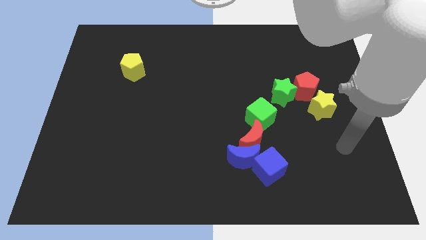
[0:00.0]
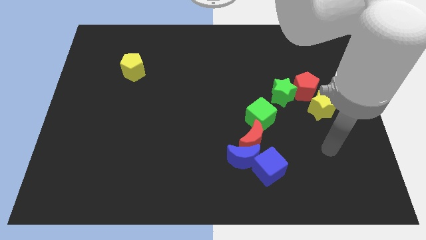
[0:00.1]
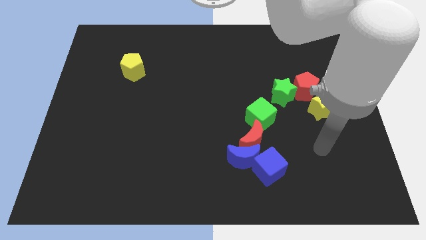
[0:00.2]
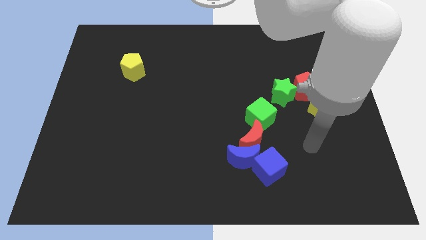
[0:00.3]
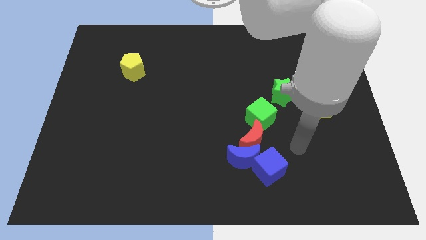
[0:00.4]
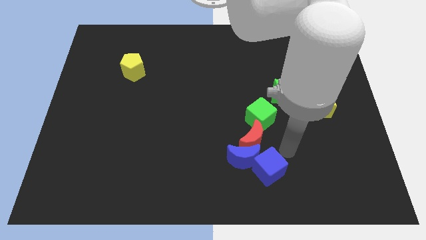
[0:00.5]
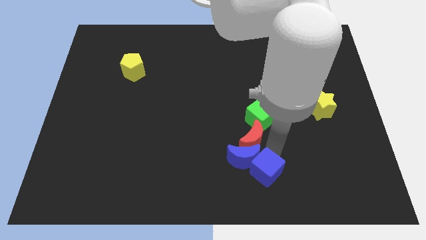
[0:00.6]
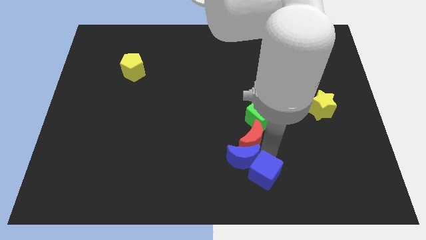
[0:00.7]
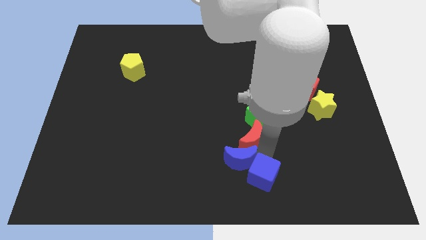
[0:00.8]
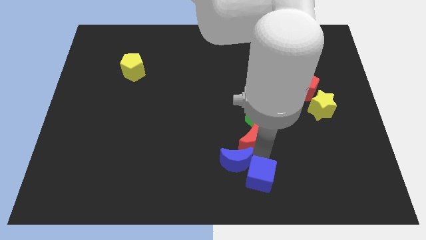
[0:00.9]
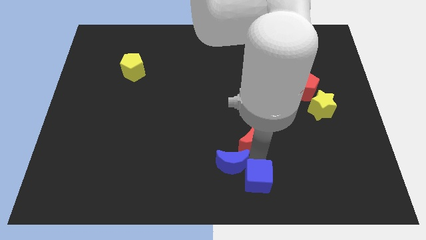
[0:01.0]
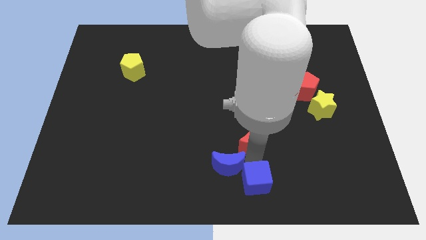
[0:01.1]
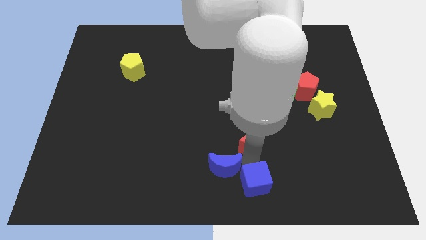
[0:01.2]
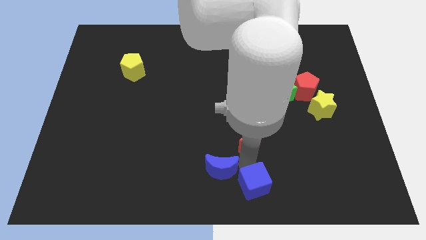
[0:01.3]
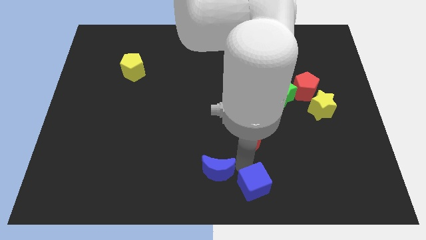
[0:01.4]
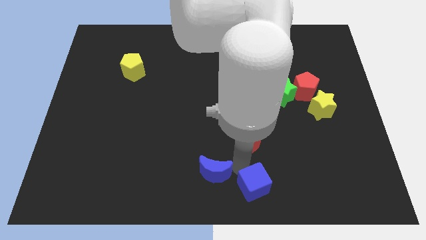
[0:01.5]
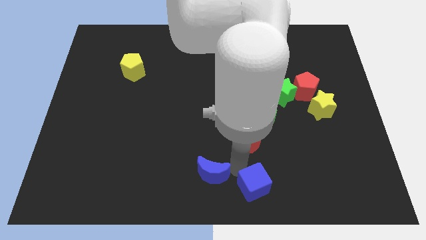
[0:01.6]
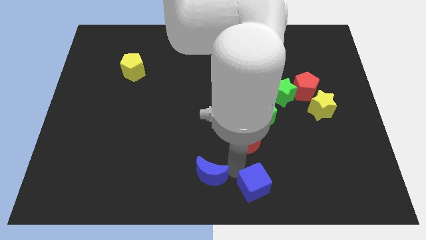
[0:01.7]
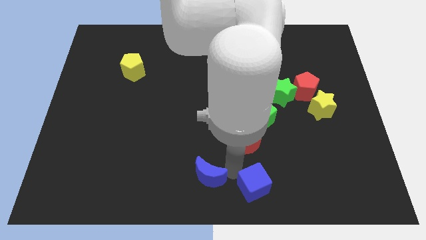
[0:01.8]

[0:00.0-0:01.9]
separate the blue moon from the red moon and blue cube

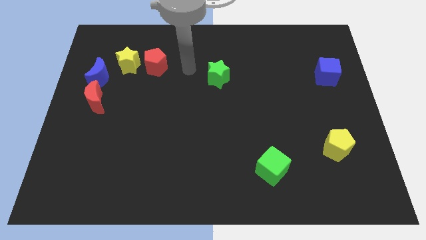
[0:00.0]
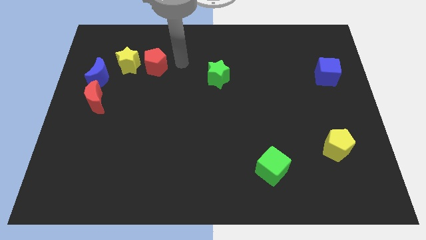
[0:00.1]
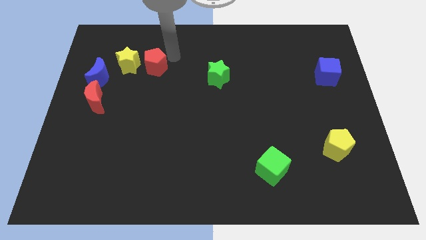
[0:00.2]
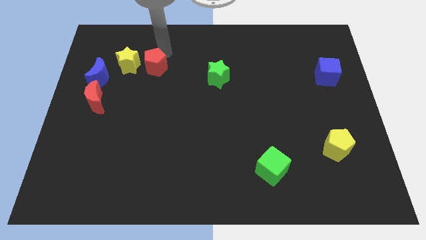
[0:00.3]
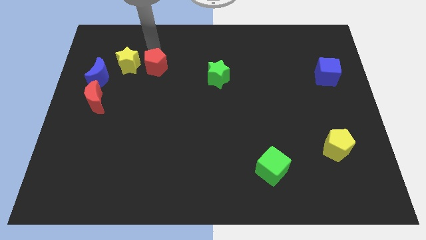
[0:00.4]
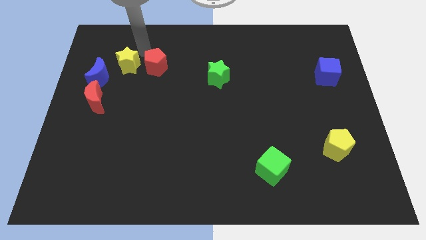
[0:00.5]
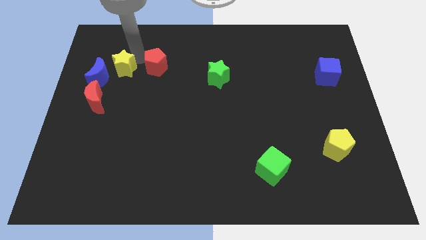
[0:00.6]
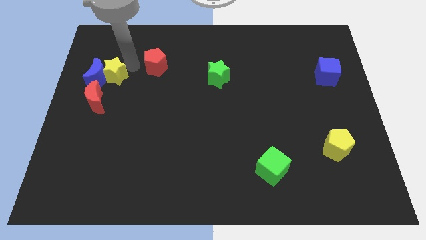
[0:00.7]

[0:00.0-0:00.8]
pull the red pentagon apart from the yellow star

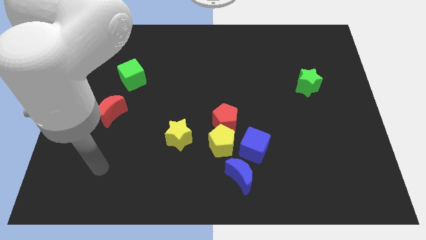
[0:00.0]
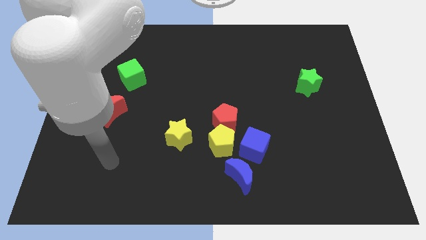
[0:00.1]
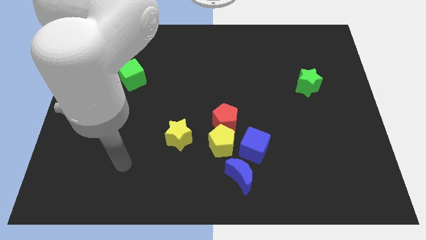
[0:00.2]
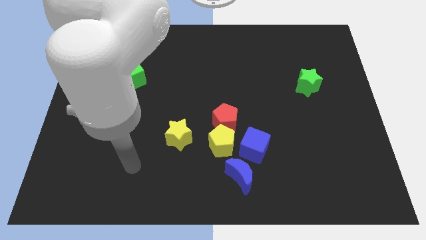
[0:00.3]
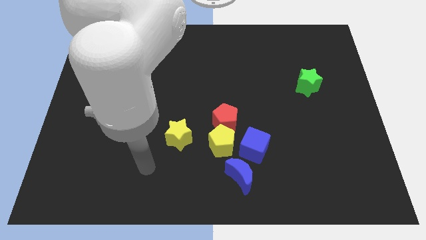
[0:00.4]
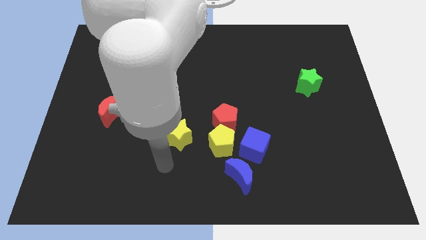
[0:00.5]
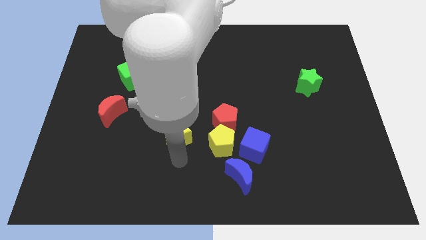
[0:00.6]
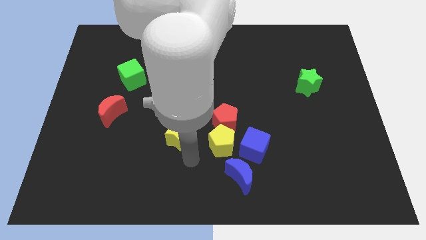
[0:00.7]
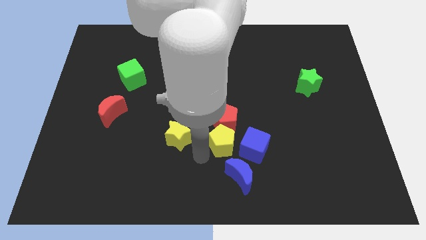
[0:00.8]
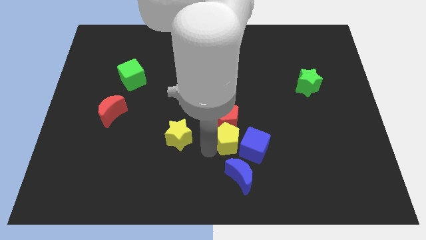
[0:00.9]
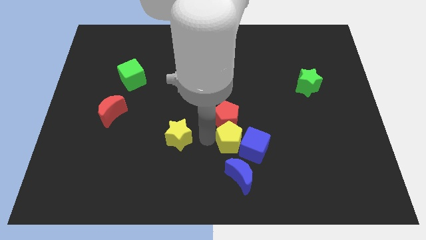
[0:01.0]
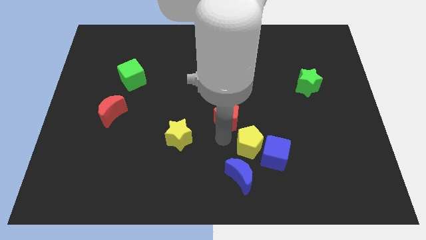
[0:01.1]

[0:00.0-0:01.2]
move the red pentagon away from the yellow pentagon and blue cube

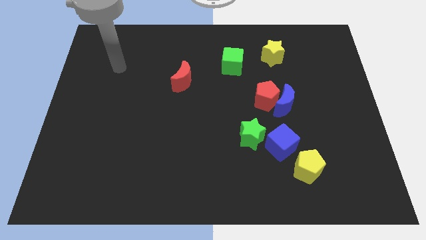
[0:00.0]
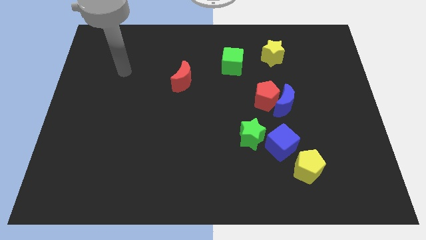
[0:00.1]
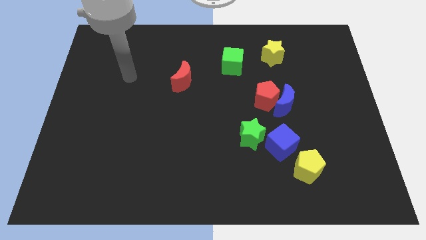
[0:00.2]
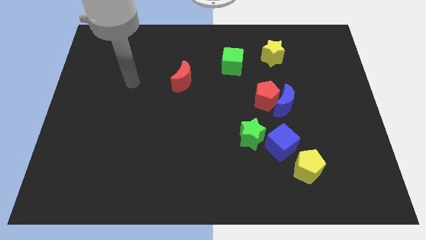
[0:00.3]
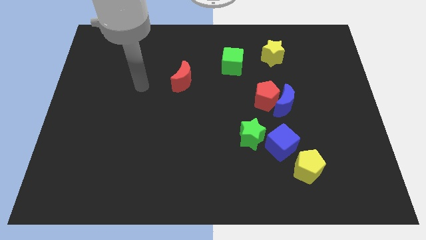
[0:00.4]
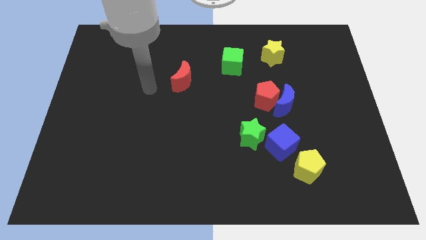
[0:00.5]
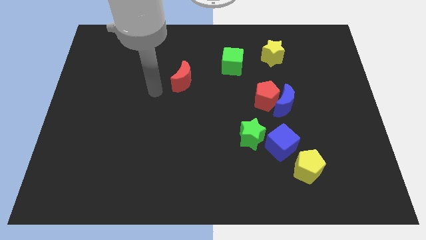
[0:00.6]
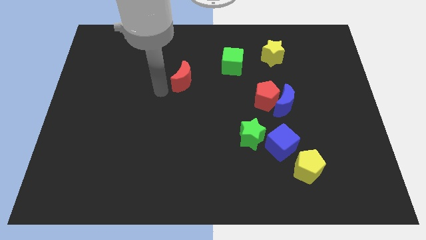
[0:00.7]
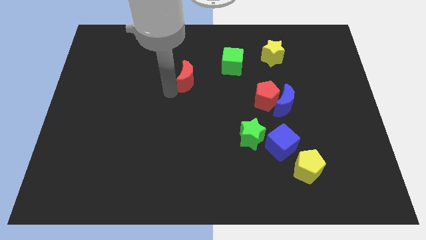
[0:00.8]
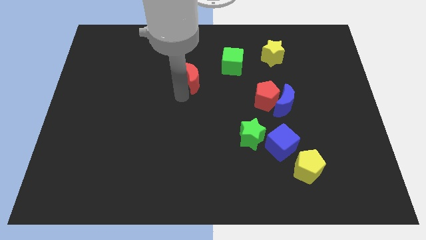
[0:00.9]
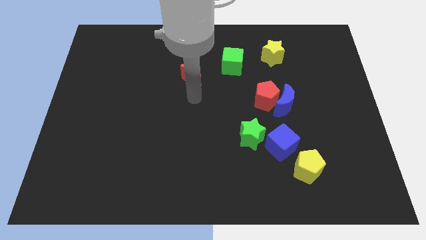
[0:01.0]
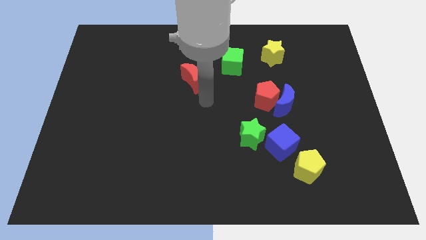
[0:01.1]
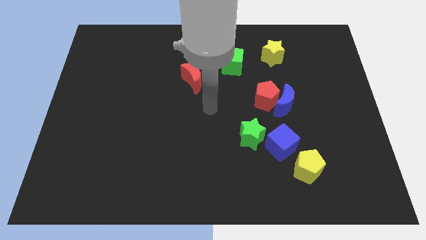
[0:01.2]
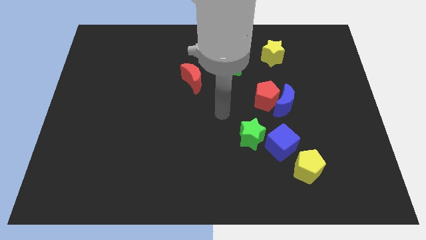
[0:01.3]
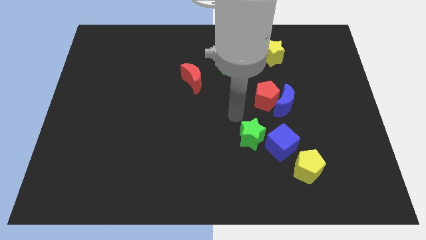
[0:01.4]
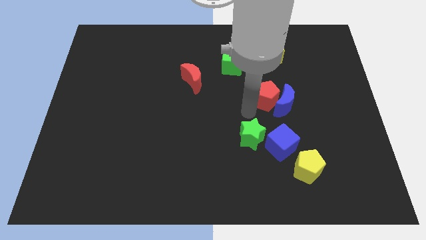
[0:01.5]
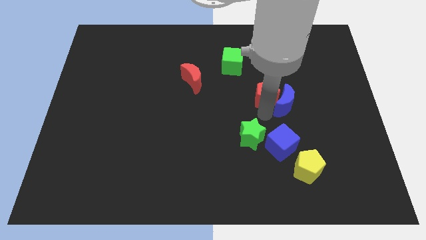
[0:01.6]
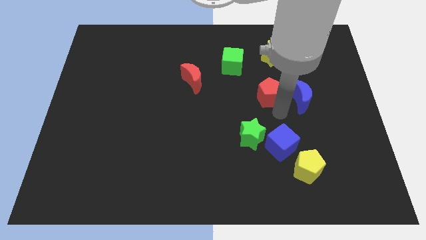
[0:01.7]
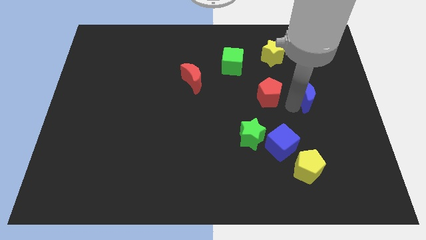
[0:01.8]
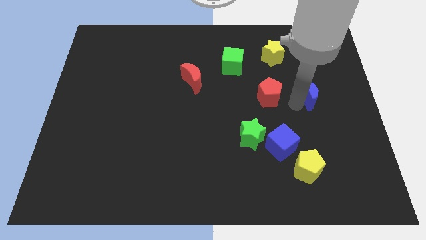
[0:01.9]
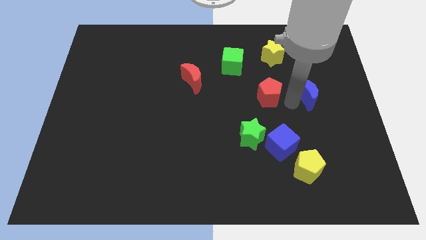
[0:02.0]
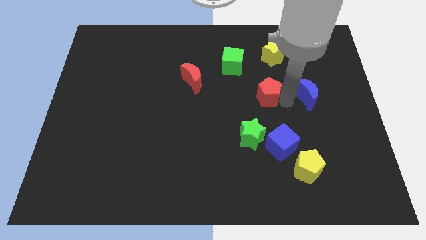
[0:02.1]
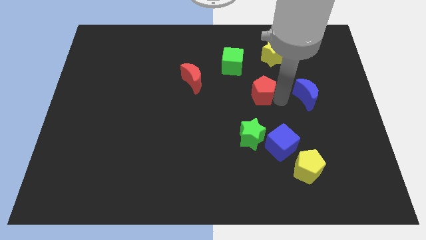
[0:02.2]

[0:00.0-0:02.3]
separate the red pentagon from the blue moon

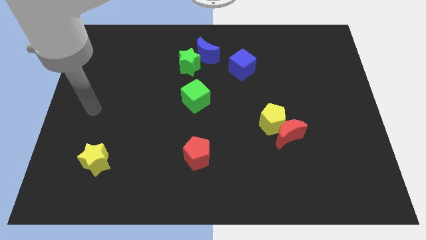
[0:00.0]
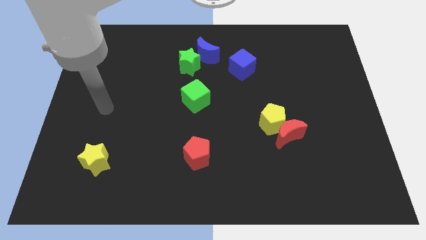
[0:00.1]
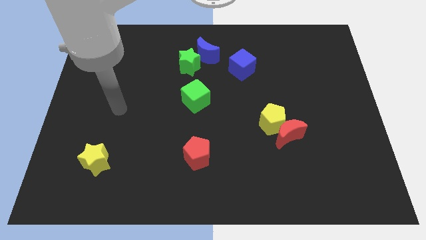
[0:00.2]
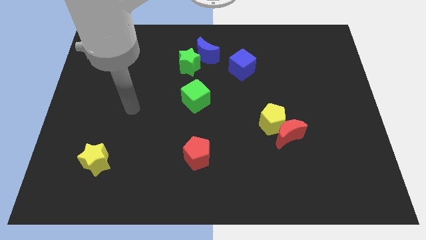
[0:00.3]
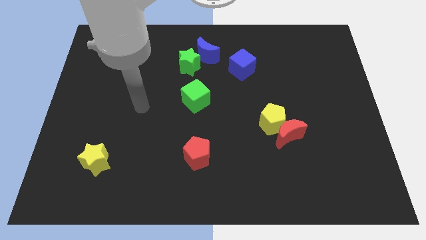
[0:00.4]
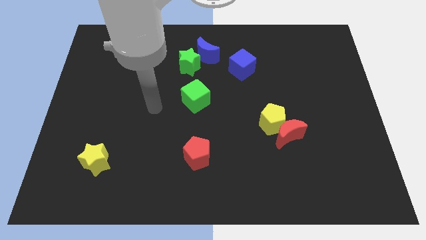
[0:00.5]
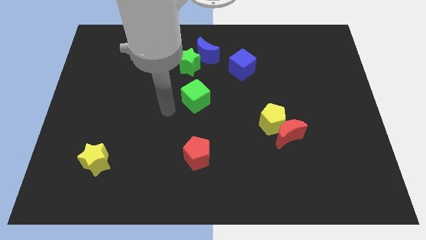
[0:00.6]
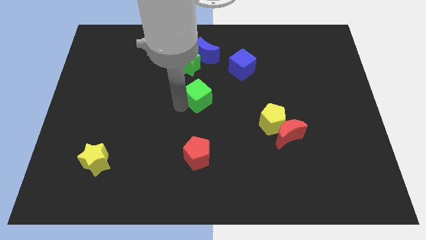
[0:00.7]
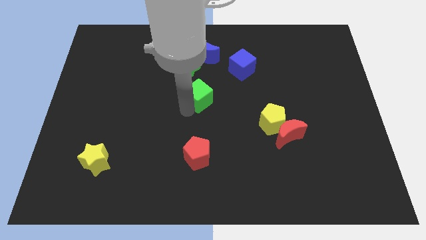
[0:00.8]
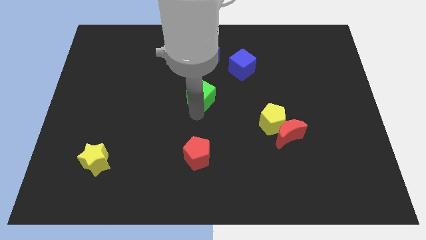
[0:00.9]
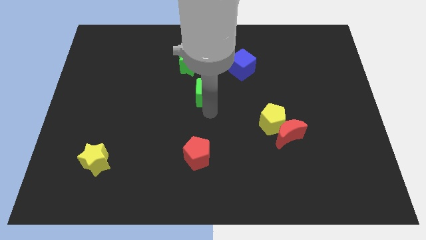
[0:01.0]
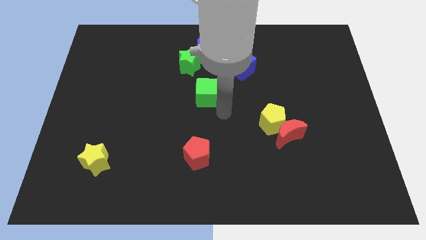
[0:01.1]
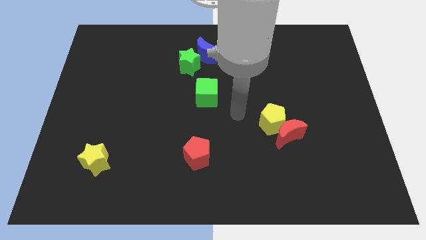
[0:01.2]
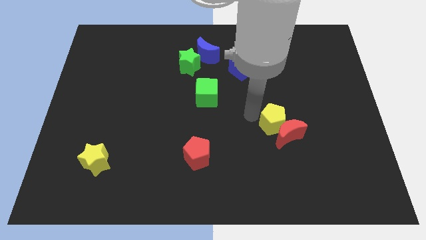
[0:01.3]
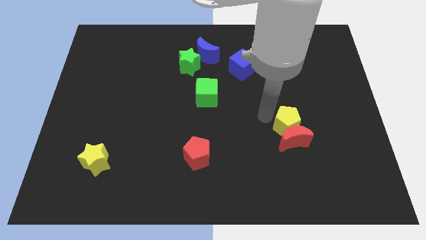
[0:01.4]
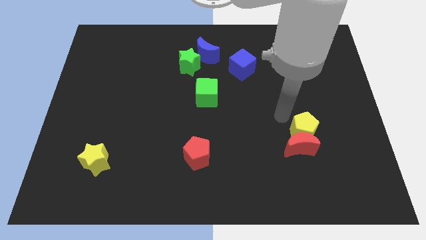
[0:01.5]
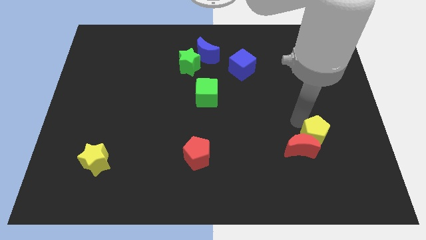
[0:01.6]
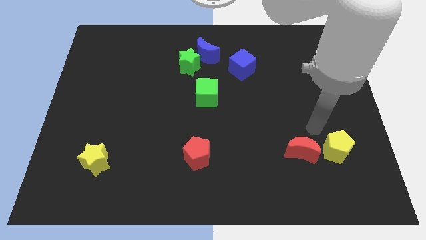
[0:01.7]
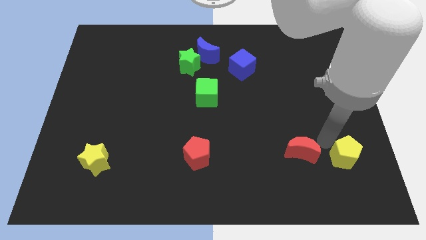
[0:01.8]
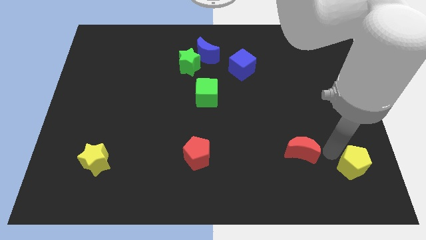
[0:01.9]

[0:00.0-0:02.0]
separate the red moon from the yellow pentagon

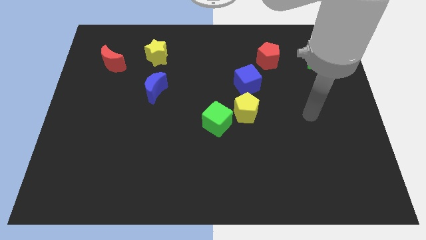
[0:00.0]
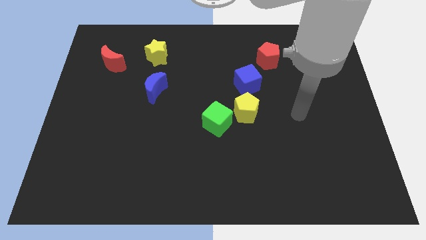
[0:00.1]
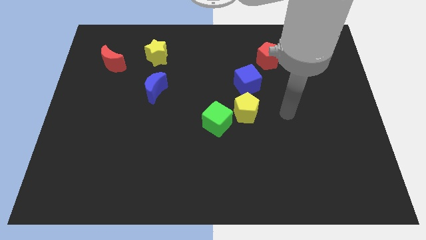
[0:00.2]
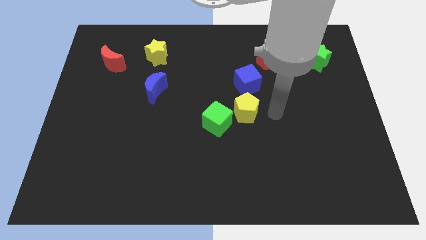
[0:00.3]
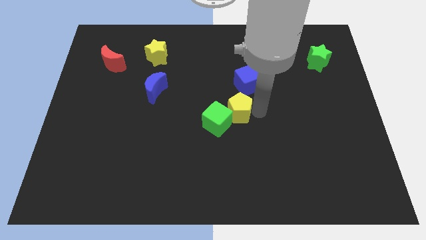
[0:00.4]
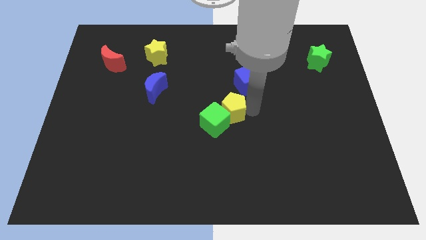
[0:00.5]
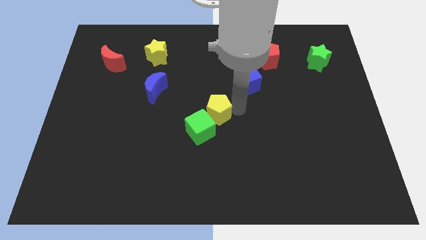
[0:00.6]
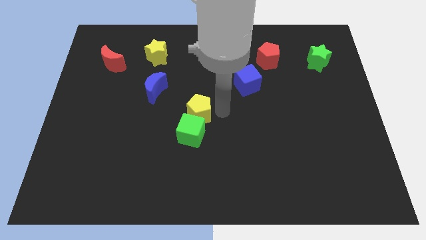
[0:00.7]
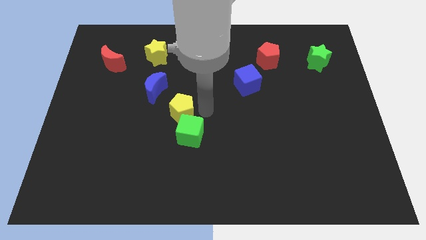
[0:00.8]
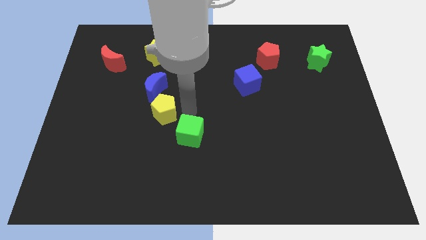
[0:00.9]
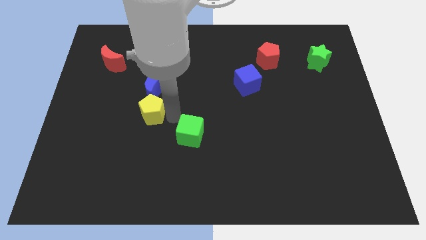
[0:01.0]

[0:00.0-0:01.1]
separate the green cube from the yellow pentagon
